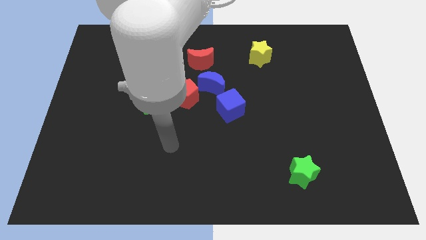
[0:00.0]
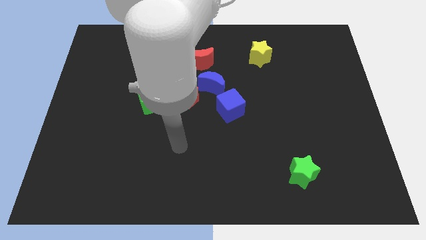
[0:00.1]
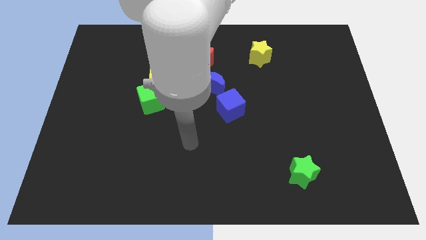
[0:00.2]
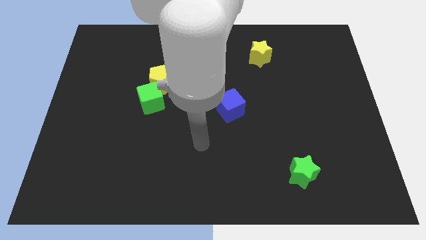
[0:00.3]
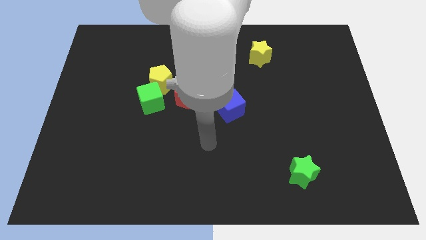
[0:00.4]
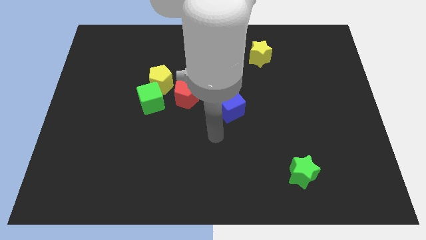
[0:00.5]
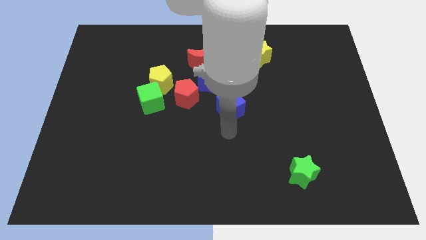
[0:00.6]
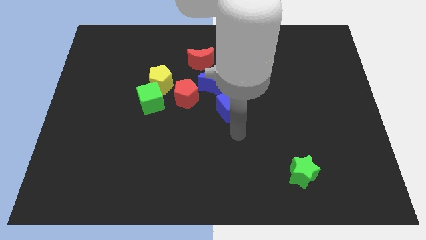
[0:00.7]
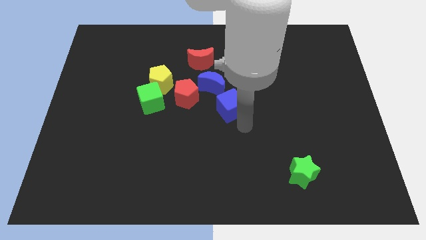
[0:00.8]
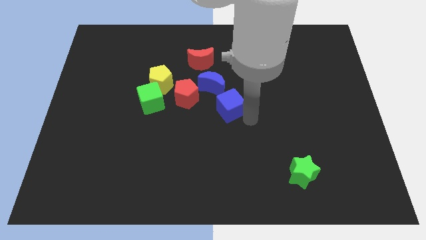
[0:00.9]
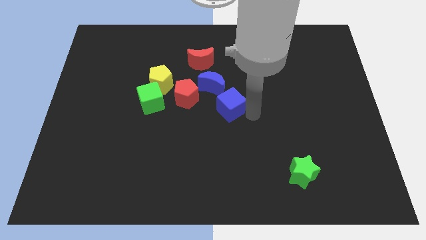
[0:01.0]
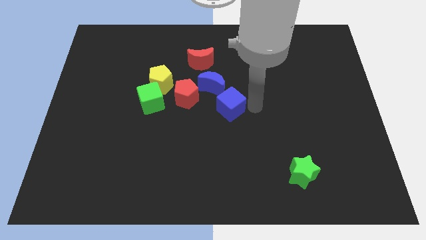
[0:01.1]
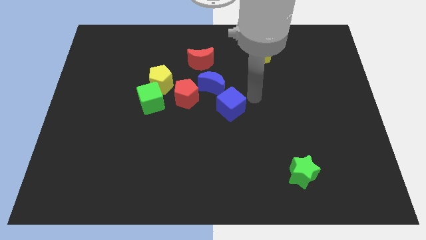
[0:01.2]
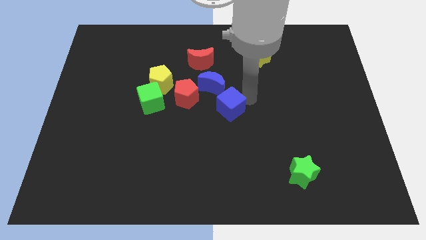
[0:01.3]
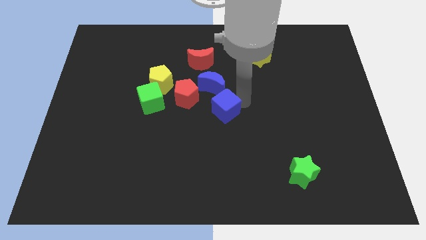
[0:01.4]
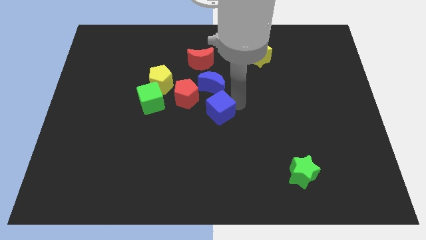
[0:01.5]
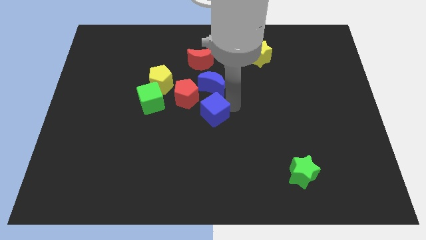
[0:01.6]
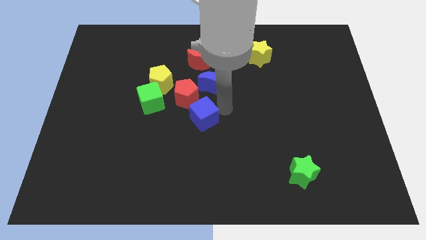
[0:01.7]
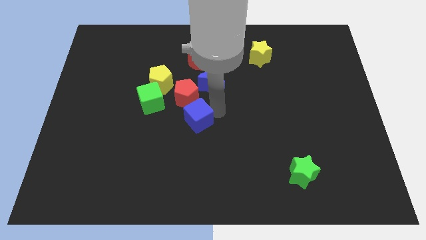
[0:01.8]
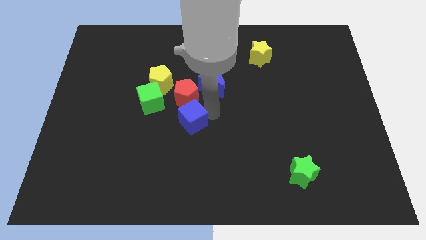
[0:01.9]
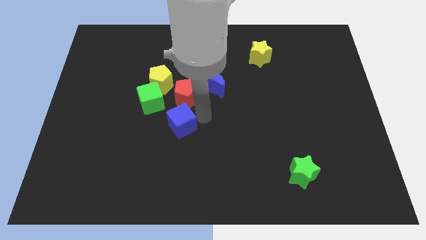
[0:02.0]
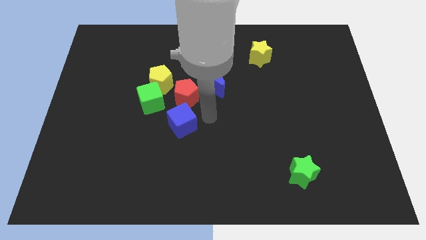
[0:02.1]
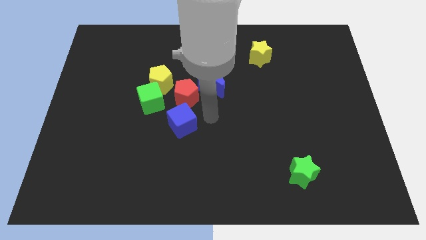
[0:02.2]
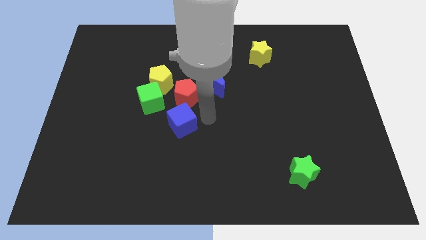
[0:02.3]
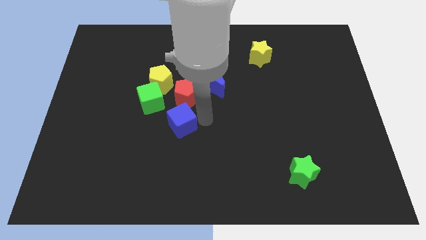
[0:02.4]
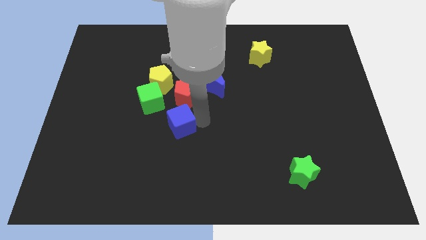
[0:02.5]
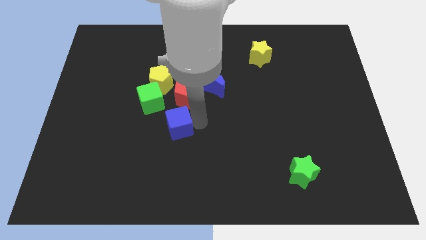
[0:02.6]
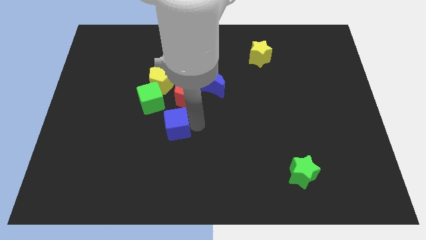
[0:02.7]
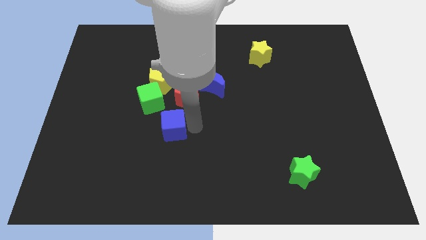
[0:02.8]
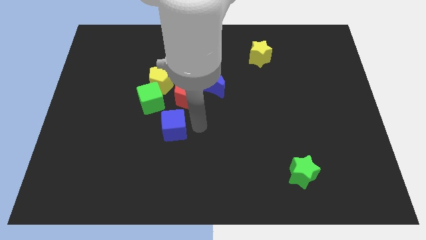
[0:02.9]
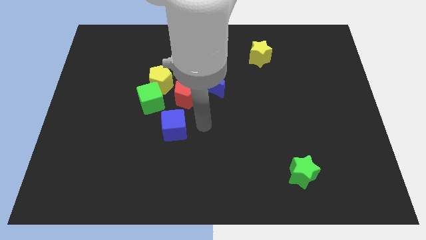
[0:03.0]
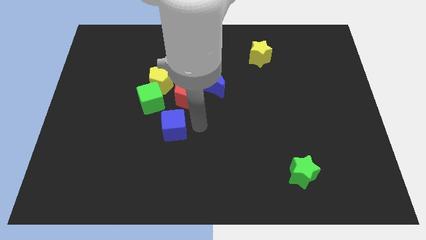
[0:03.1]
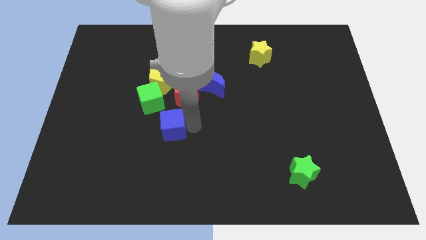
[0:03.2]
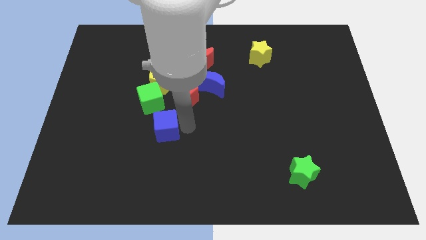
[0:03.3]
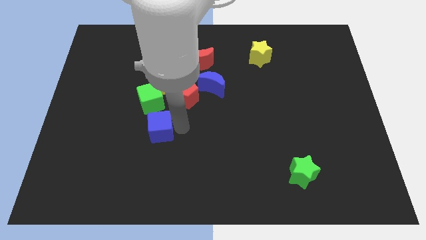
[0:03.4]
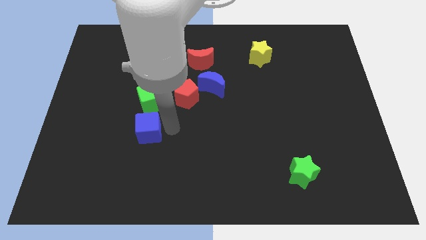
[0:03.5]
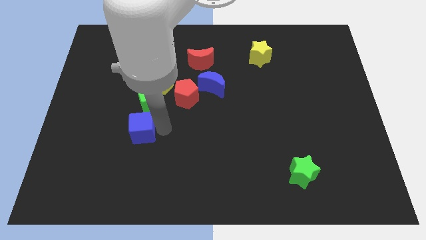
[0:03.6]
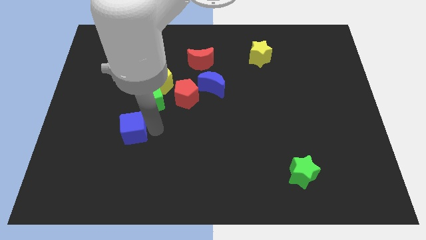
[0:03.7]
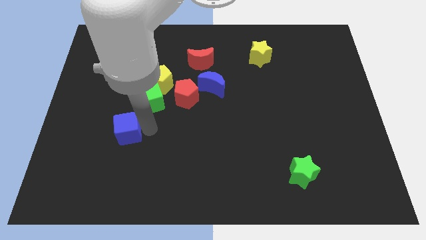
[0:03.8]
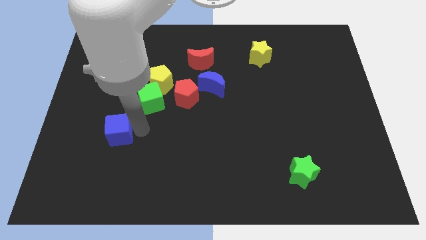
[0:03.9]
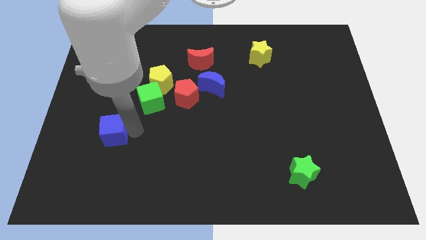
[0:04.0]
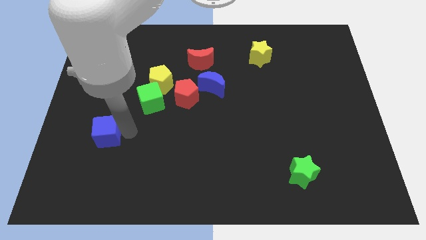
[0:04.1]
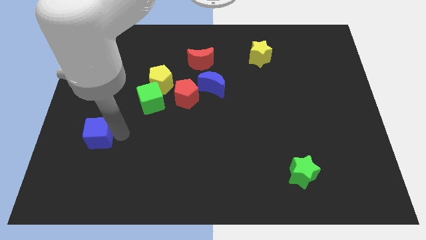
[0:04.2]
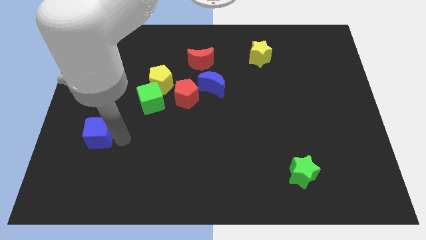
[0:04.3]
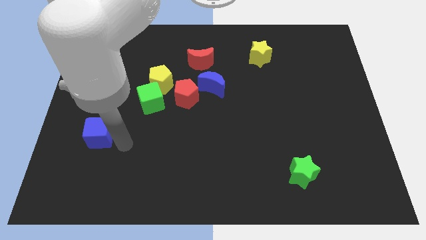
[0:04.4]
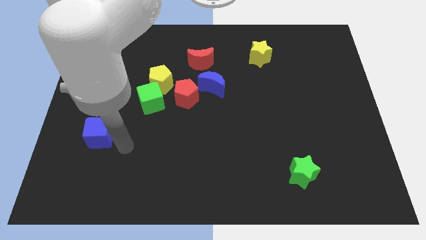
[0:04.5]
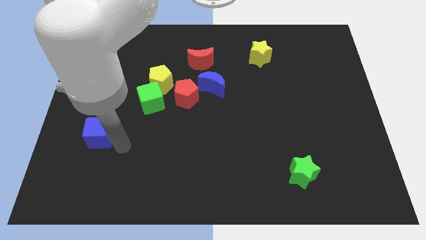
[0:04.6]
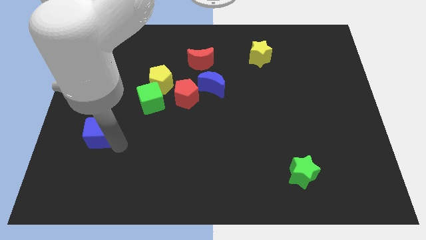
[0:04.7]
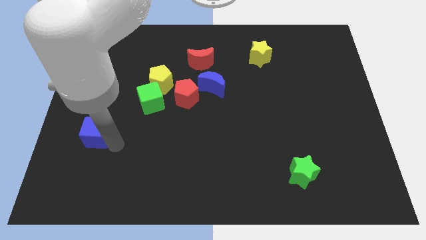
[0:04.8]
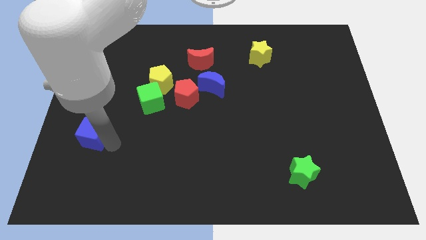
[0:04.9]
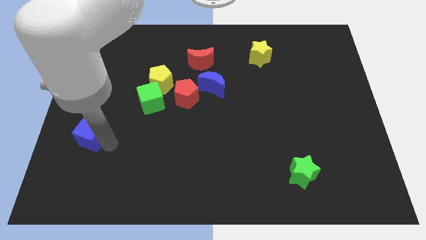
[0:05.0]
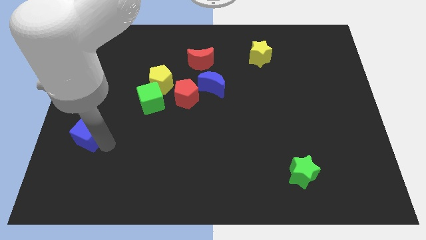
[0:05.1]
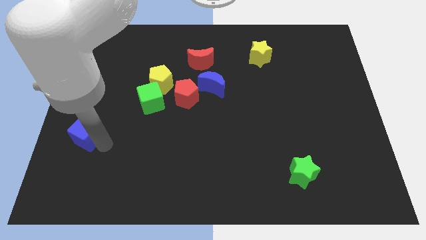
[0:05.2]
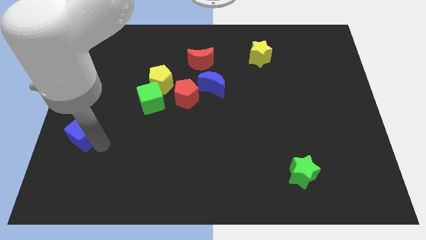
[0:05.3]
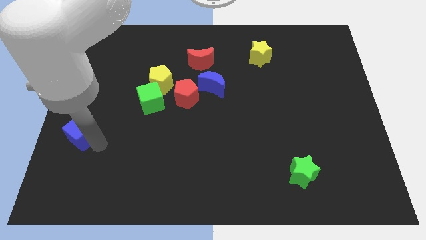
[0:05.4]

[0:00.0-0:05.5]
push the blue cube to the left side of the board

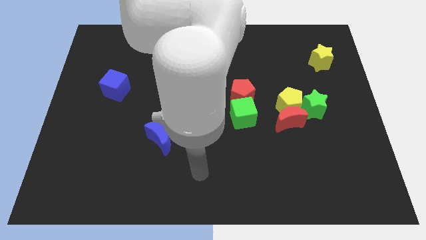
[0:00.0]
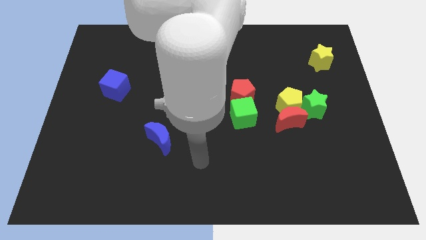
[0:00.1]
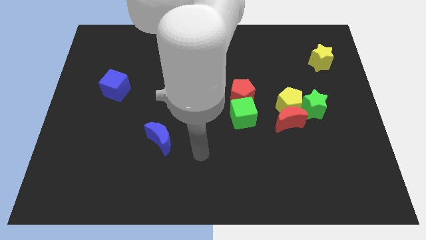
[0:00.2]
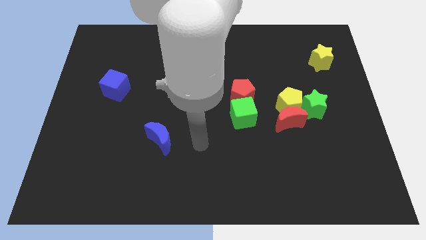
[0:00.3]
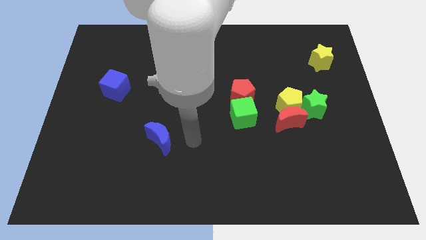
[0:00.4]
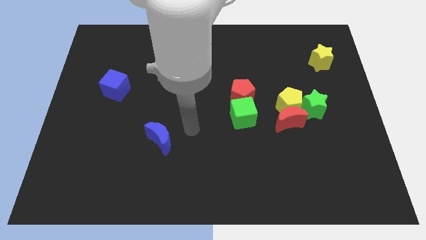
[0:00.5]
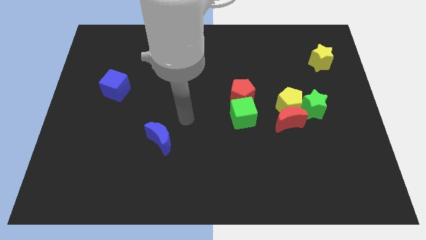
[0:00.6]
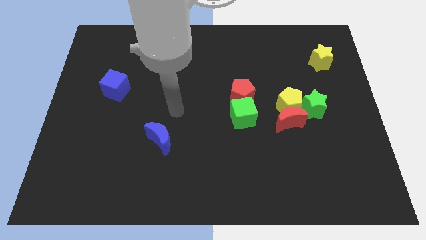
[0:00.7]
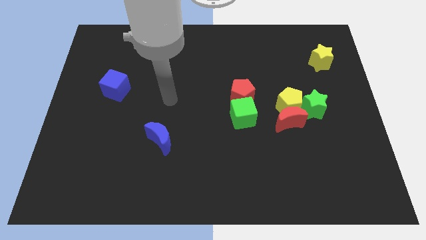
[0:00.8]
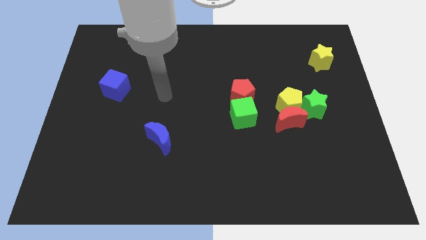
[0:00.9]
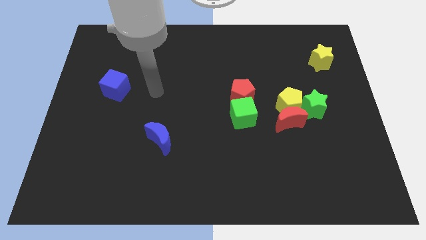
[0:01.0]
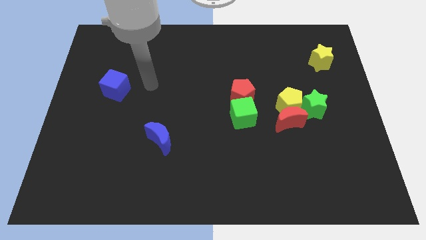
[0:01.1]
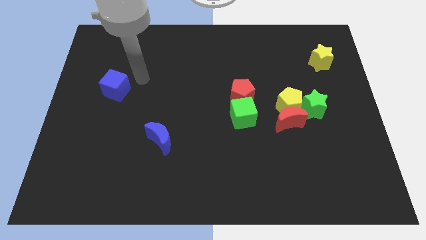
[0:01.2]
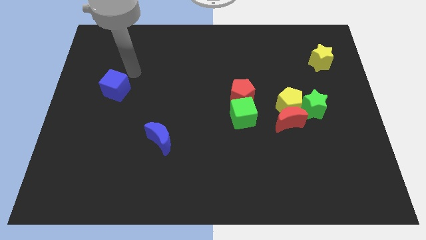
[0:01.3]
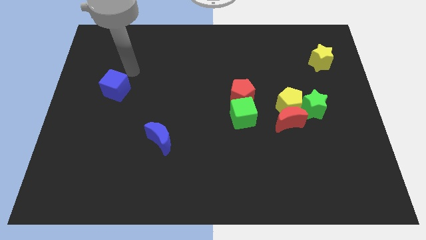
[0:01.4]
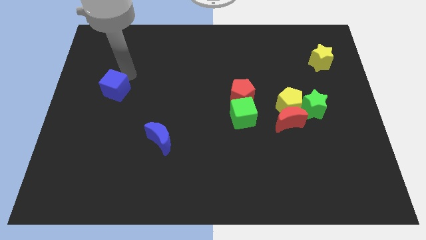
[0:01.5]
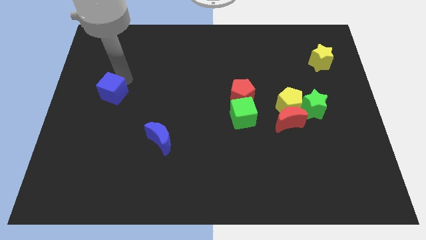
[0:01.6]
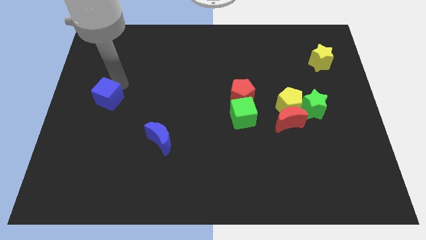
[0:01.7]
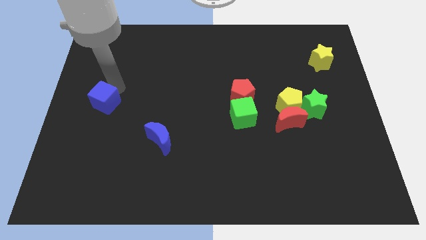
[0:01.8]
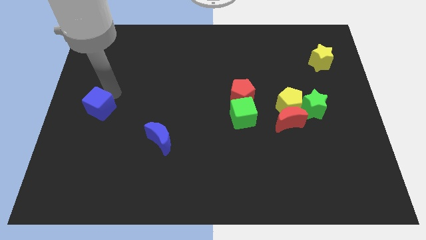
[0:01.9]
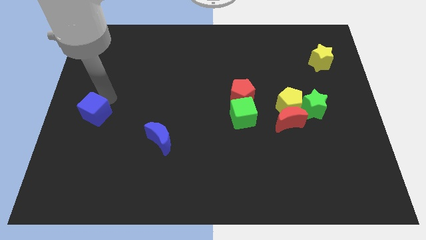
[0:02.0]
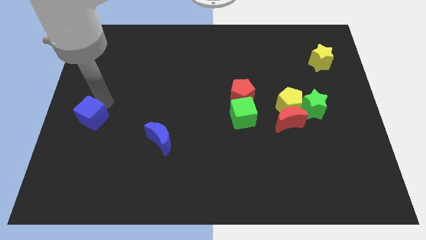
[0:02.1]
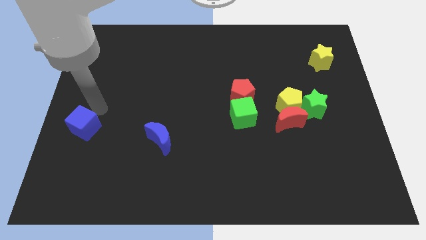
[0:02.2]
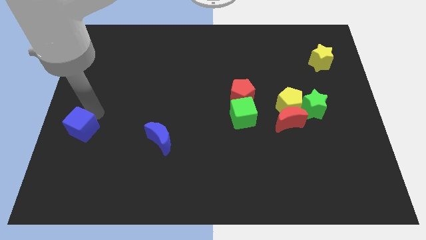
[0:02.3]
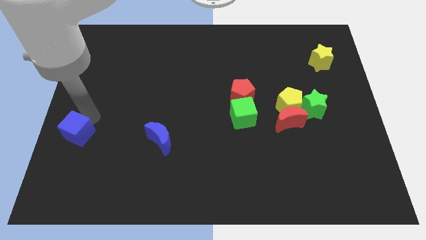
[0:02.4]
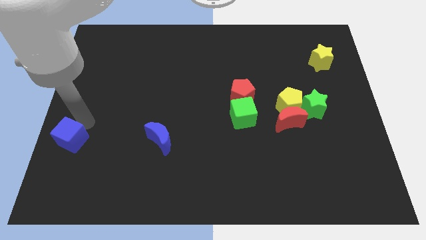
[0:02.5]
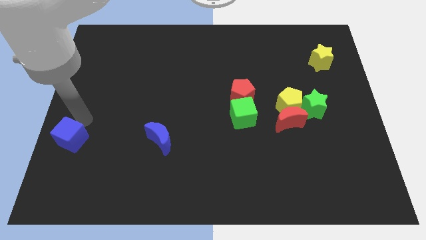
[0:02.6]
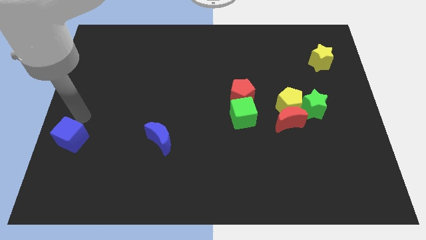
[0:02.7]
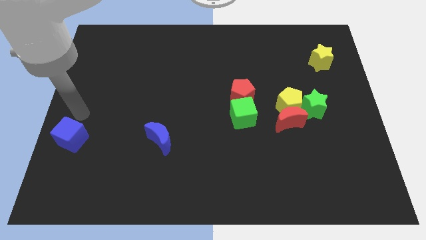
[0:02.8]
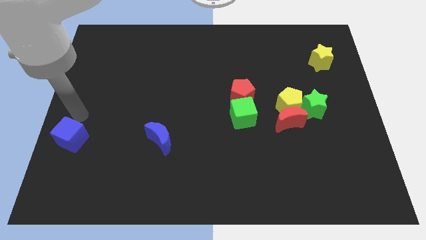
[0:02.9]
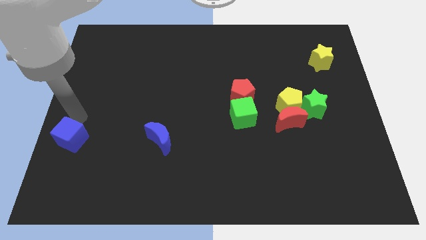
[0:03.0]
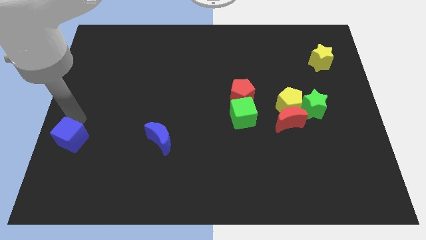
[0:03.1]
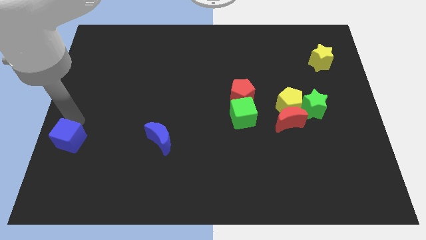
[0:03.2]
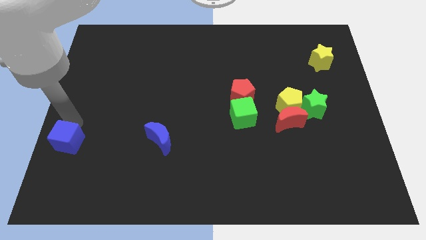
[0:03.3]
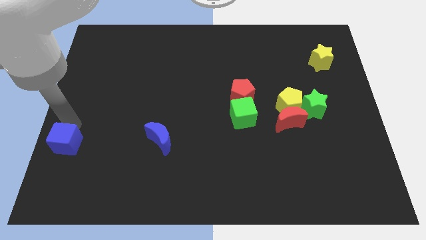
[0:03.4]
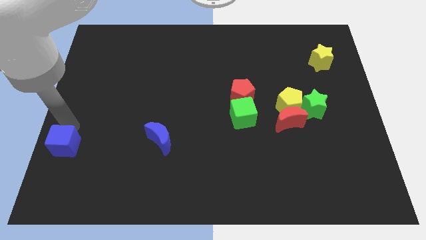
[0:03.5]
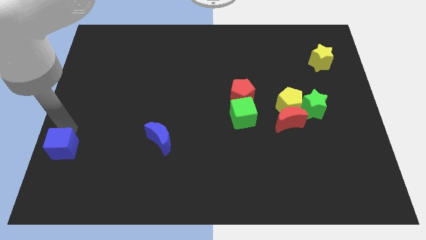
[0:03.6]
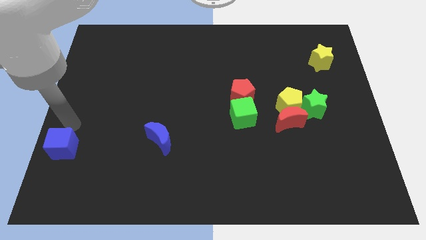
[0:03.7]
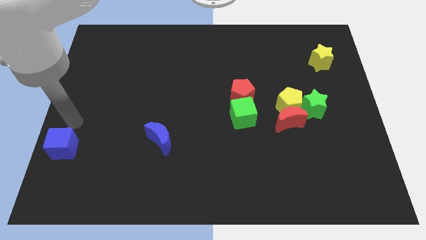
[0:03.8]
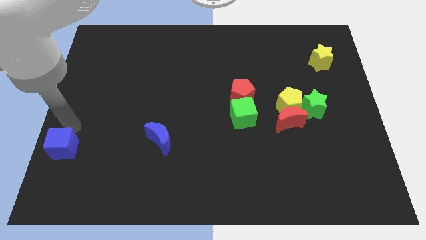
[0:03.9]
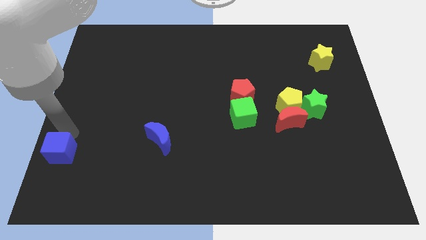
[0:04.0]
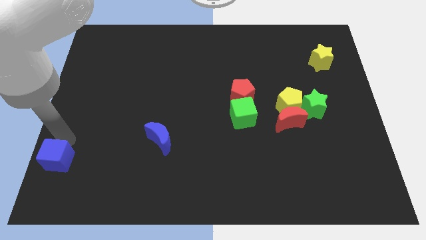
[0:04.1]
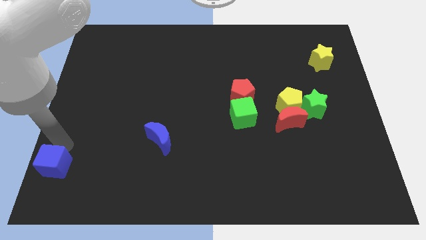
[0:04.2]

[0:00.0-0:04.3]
move the blue cube to the bottom left corner
